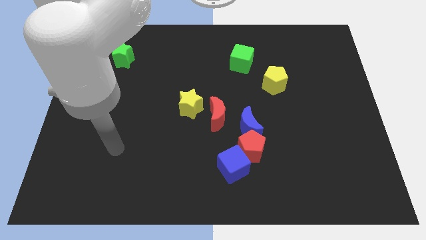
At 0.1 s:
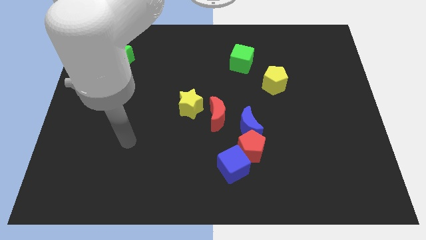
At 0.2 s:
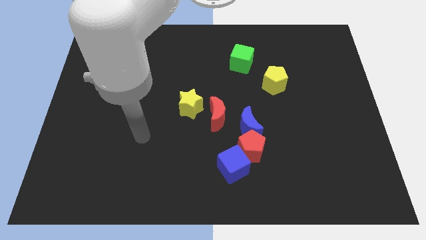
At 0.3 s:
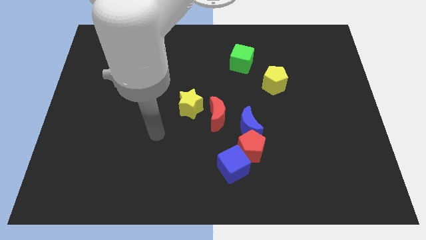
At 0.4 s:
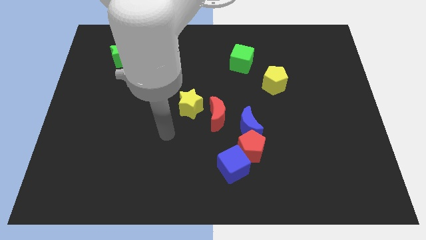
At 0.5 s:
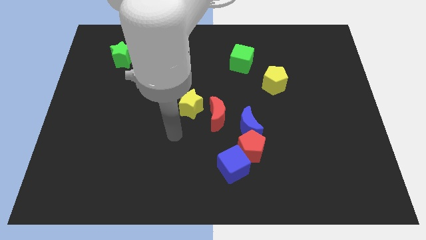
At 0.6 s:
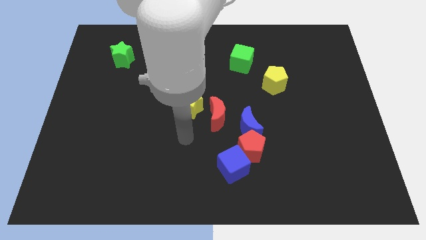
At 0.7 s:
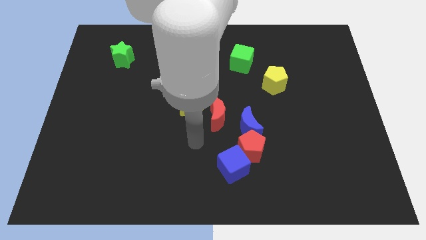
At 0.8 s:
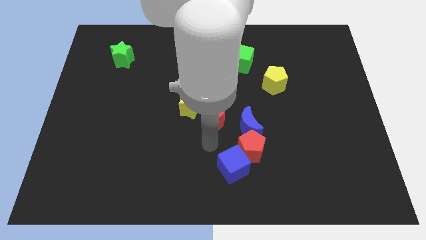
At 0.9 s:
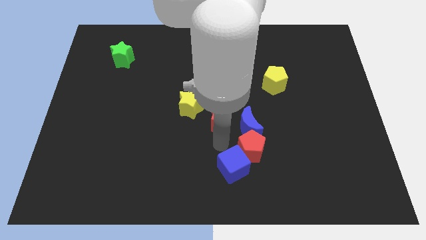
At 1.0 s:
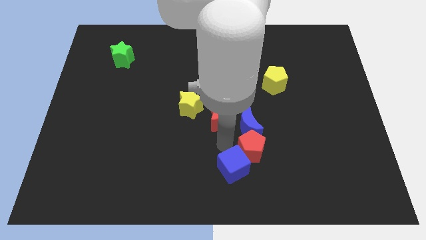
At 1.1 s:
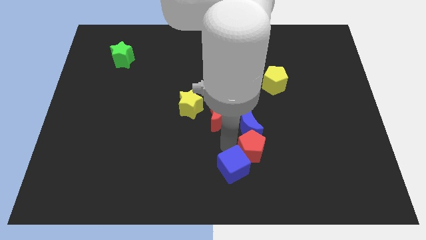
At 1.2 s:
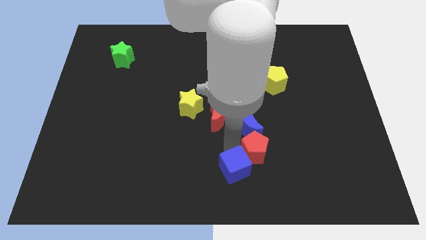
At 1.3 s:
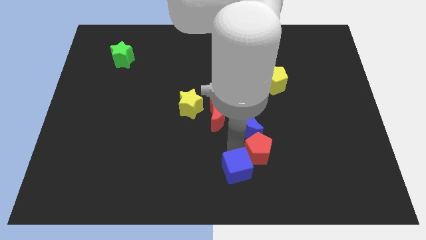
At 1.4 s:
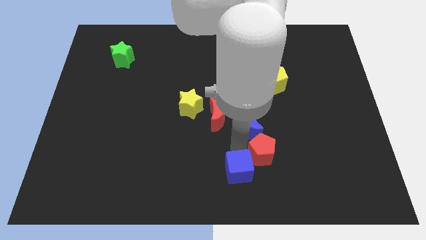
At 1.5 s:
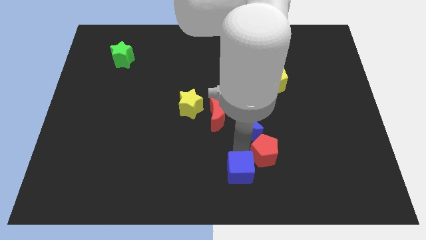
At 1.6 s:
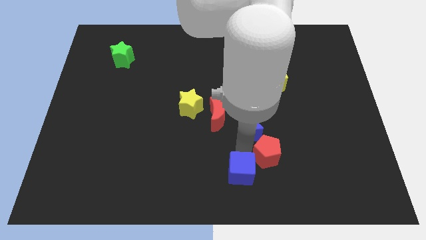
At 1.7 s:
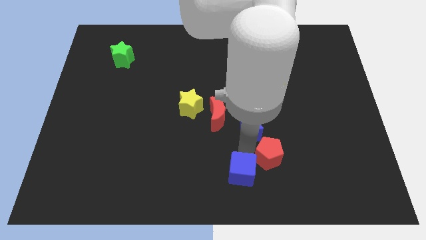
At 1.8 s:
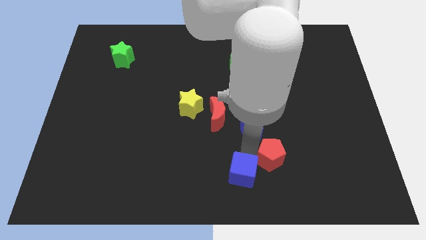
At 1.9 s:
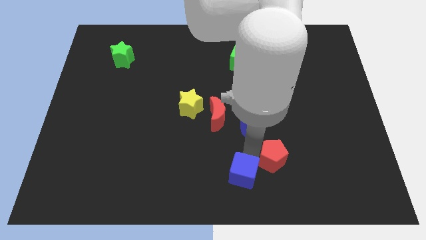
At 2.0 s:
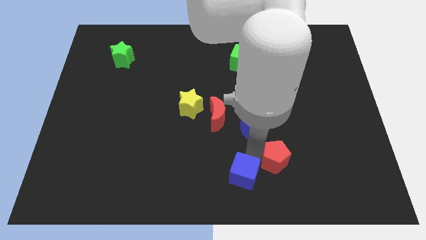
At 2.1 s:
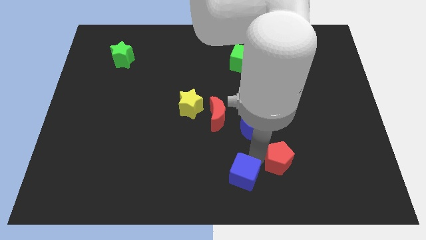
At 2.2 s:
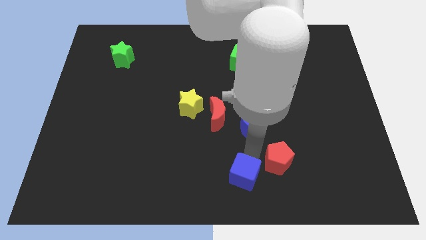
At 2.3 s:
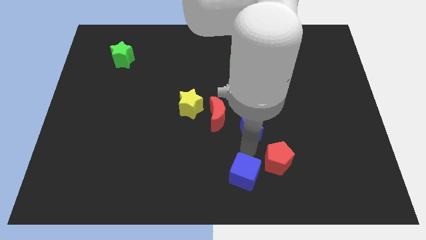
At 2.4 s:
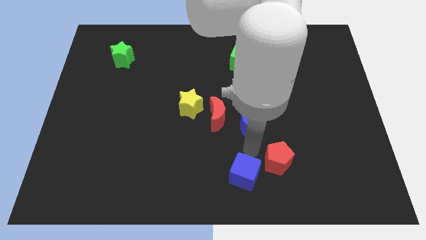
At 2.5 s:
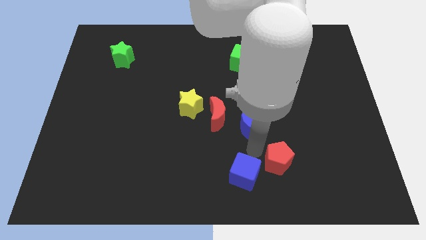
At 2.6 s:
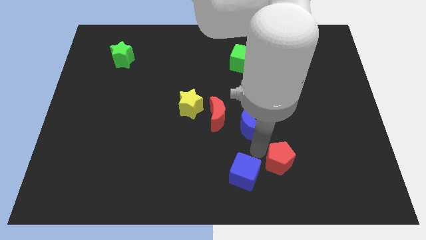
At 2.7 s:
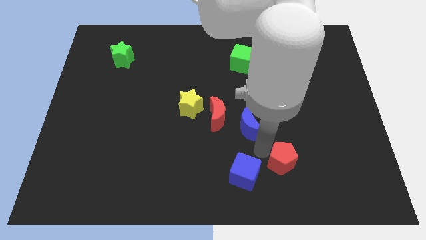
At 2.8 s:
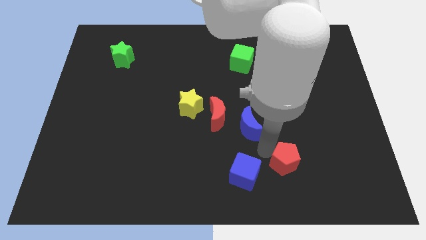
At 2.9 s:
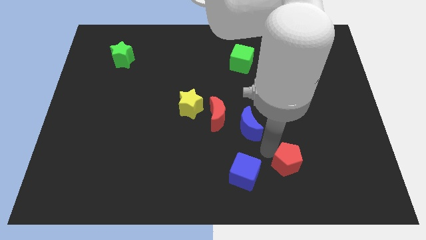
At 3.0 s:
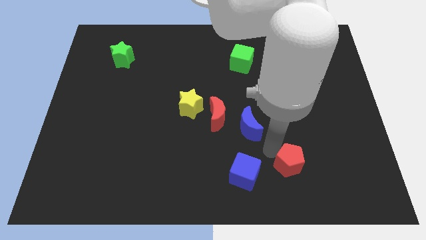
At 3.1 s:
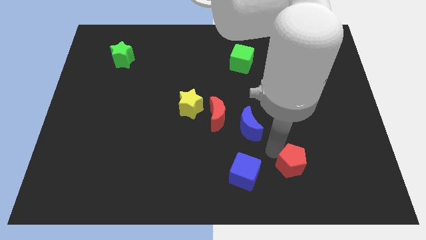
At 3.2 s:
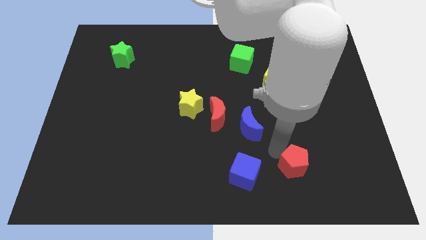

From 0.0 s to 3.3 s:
separate the red pentagon from the blue moon and blue cube

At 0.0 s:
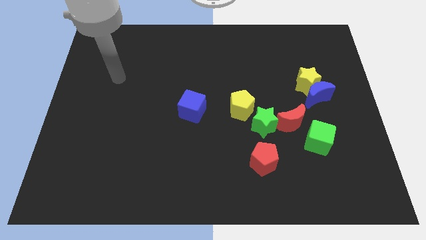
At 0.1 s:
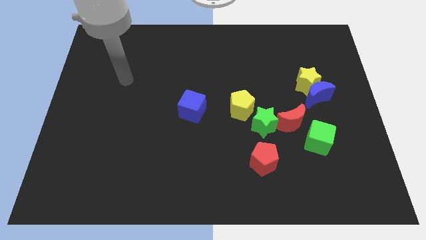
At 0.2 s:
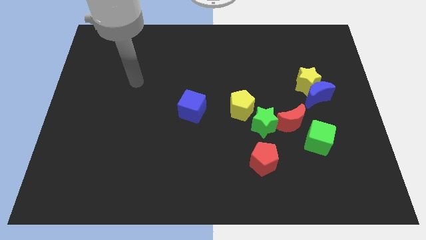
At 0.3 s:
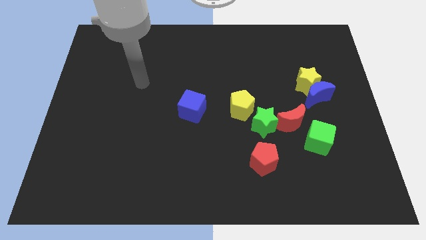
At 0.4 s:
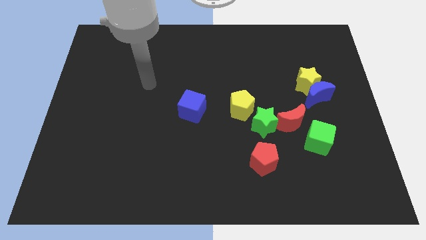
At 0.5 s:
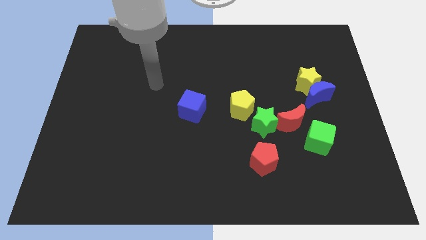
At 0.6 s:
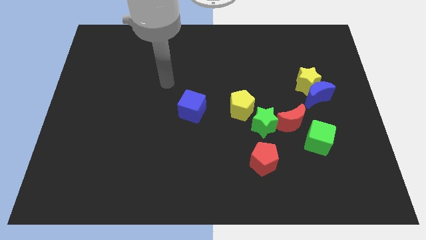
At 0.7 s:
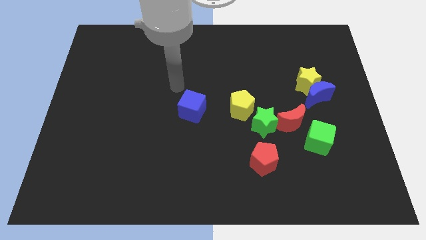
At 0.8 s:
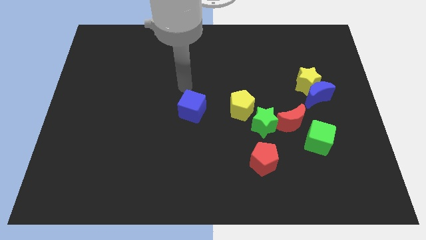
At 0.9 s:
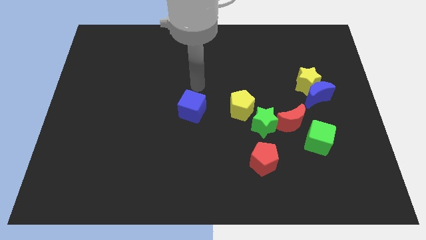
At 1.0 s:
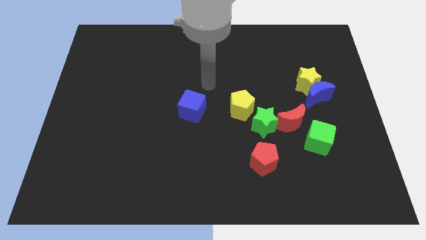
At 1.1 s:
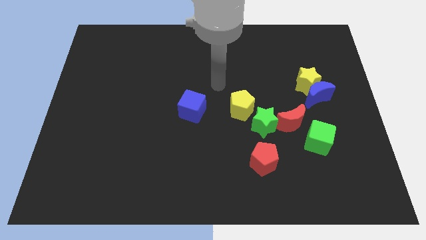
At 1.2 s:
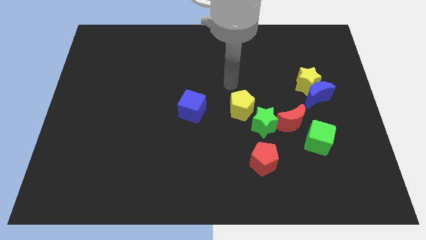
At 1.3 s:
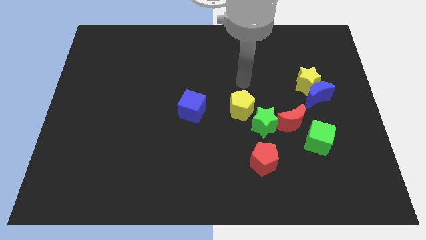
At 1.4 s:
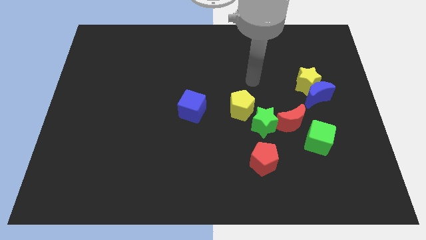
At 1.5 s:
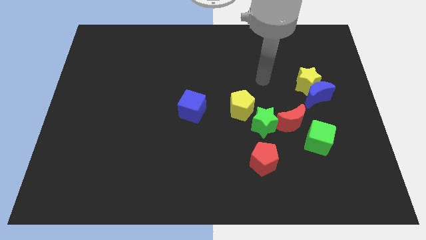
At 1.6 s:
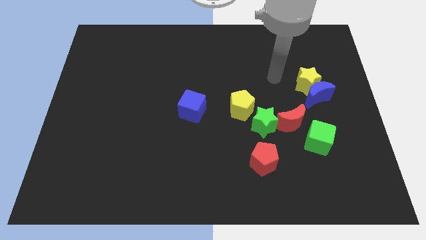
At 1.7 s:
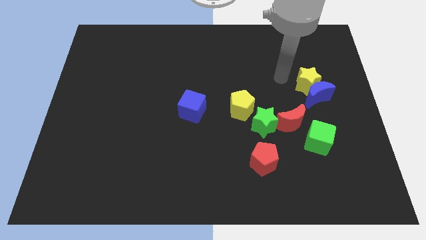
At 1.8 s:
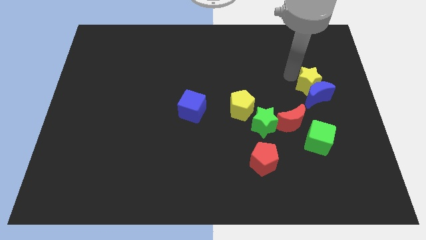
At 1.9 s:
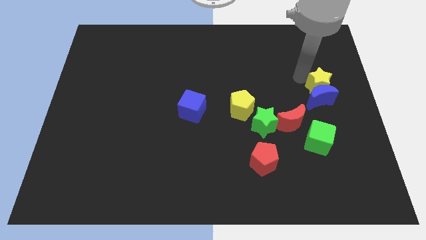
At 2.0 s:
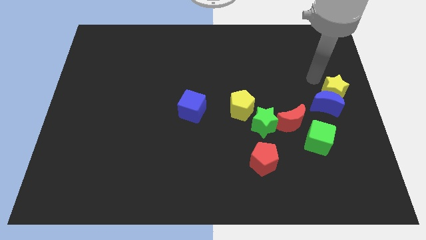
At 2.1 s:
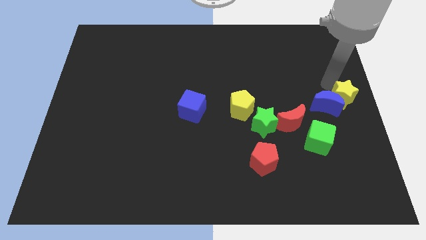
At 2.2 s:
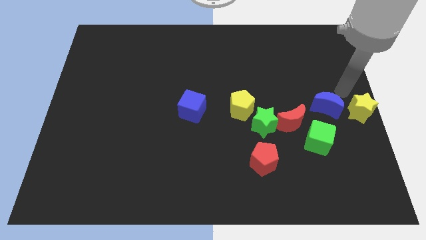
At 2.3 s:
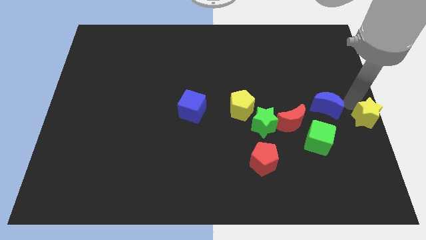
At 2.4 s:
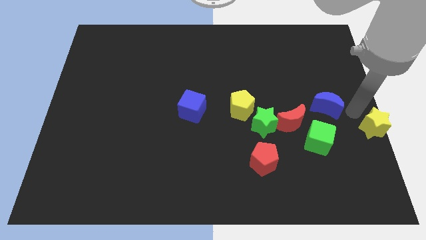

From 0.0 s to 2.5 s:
move the blue moon away from the yellow star

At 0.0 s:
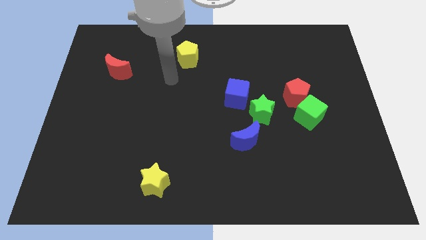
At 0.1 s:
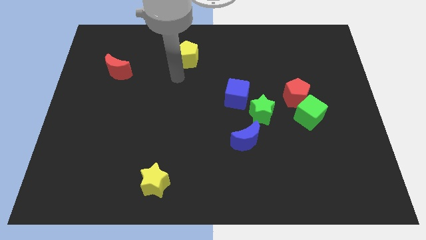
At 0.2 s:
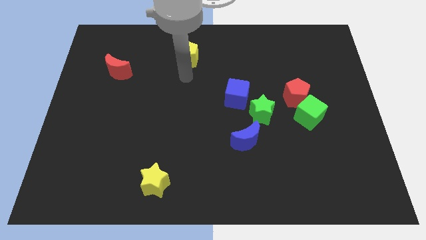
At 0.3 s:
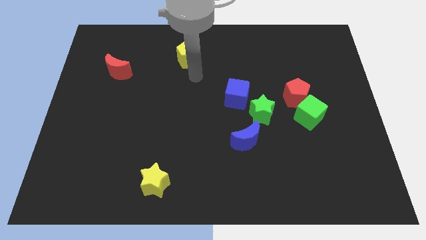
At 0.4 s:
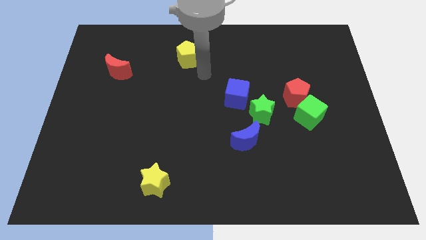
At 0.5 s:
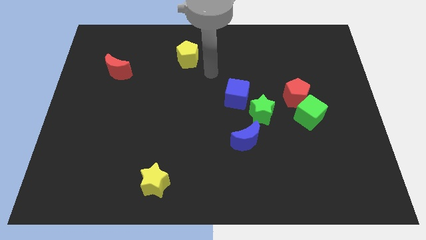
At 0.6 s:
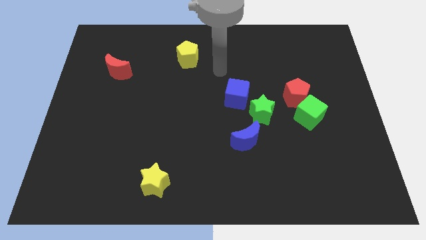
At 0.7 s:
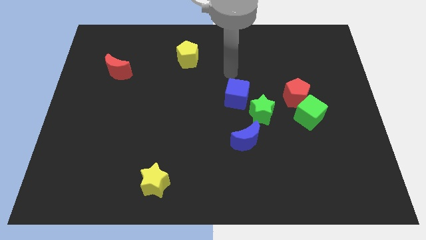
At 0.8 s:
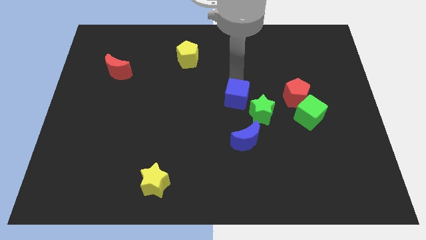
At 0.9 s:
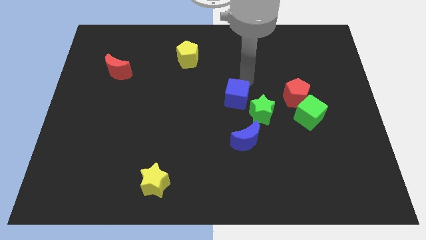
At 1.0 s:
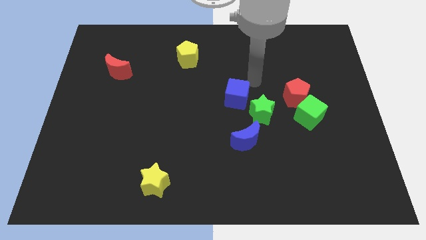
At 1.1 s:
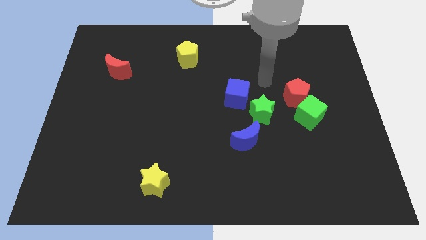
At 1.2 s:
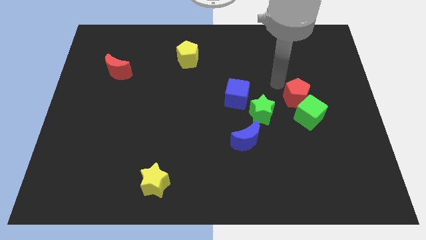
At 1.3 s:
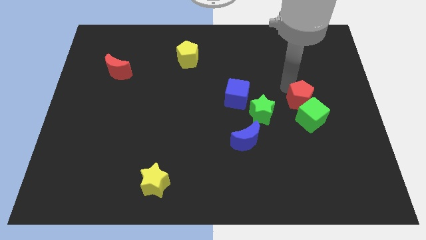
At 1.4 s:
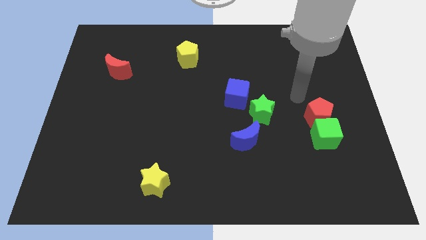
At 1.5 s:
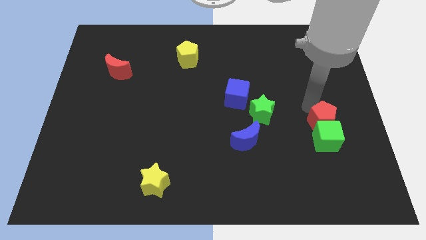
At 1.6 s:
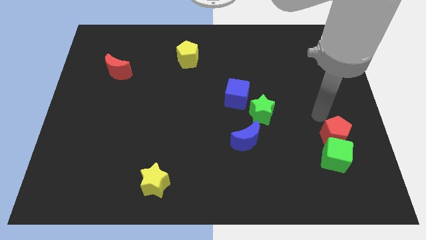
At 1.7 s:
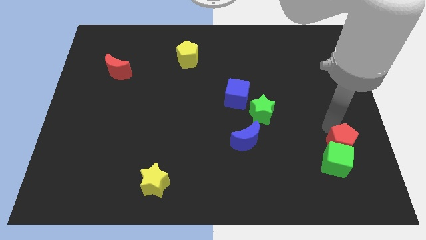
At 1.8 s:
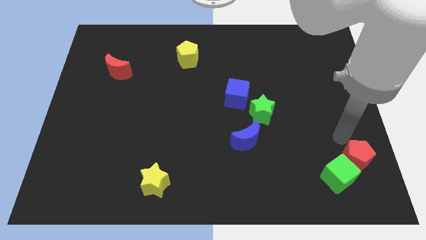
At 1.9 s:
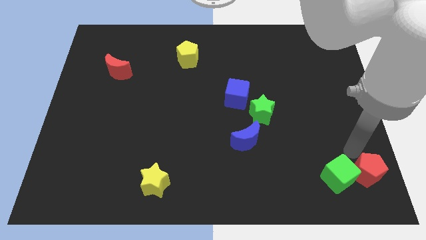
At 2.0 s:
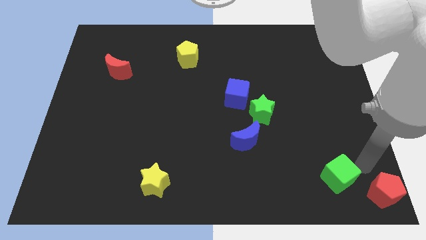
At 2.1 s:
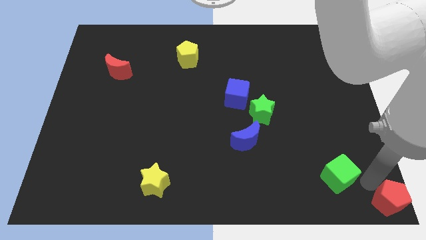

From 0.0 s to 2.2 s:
pull the green cube apart from the red pentagon

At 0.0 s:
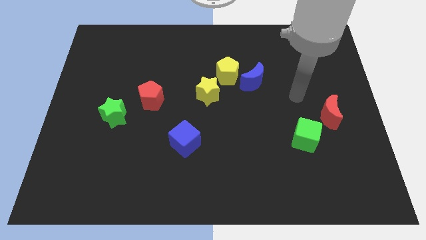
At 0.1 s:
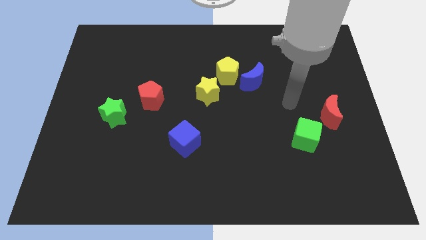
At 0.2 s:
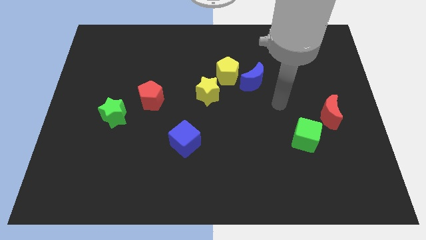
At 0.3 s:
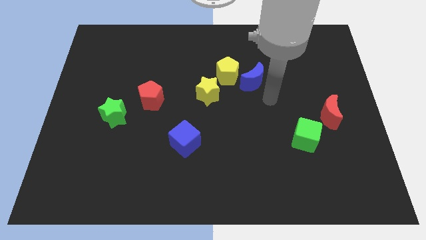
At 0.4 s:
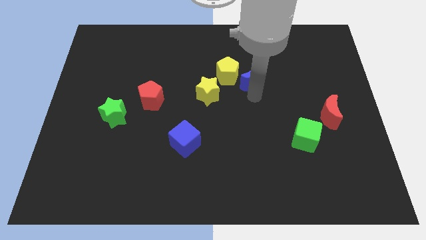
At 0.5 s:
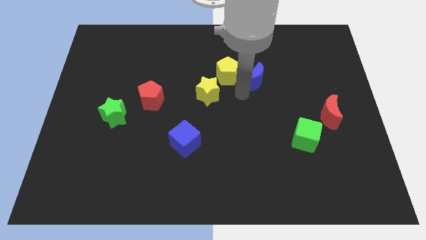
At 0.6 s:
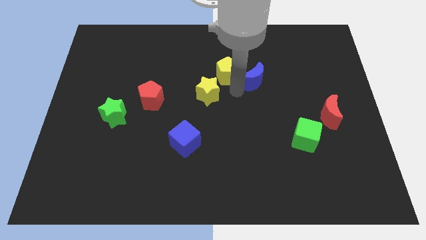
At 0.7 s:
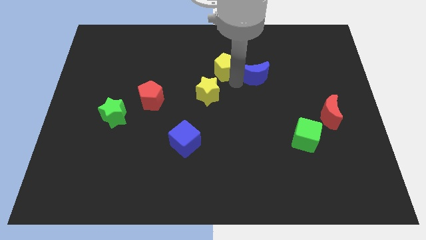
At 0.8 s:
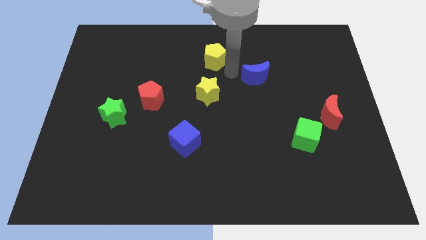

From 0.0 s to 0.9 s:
pull the blue moon apart from the yellow pentagon

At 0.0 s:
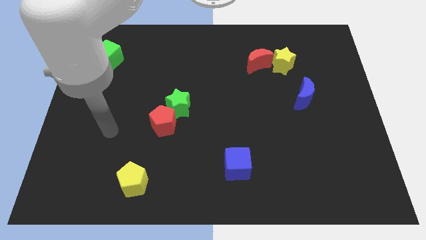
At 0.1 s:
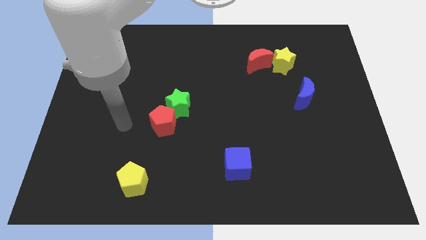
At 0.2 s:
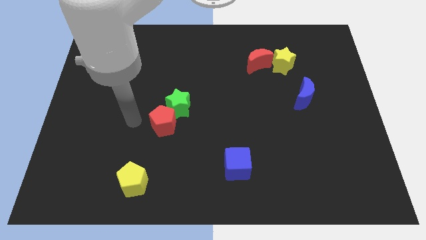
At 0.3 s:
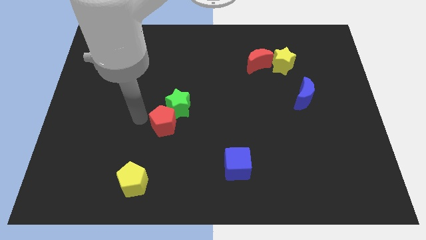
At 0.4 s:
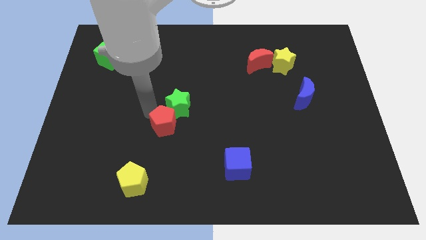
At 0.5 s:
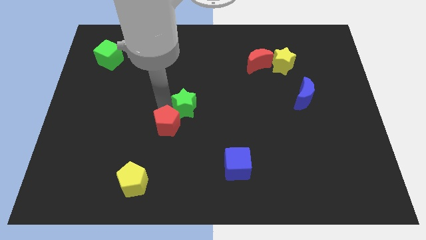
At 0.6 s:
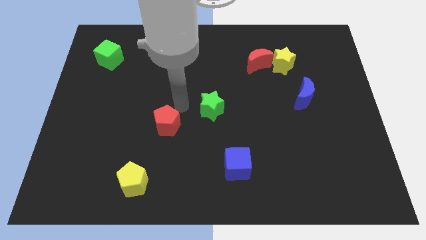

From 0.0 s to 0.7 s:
separate the red pentagon from the green star
